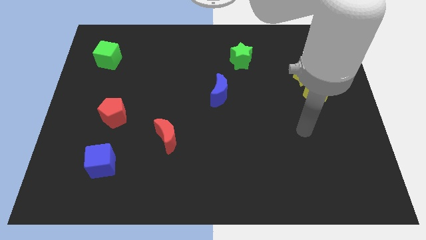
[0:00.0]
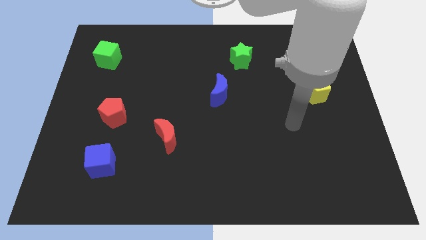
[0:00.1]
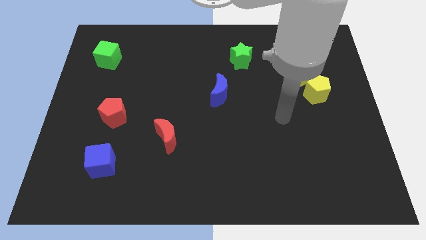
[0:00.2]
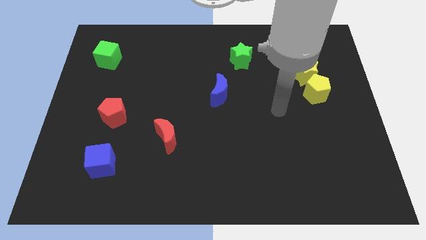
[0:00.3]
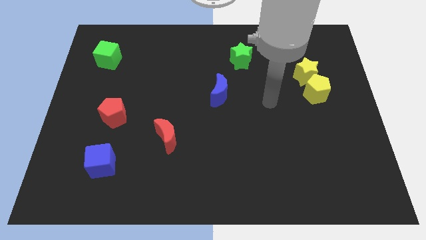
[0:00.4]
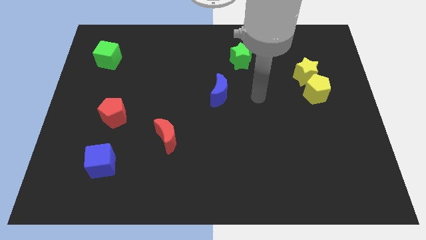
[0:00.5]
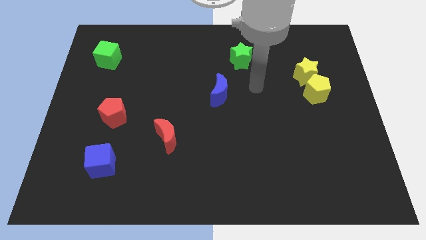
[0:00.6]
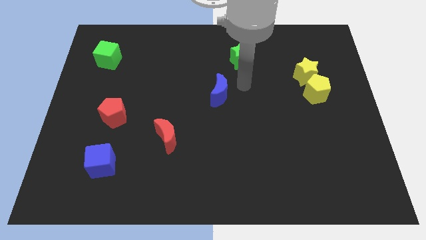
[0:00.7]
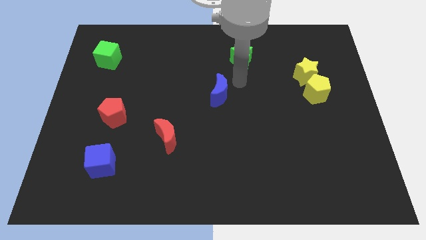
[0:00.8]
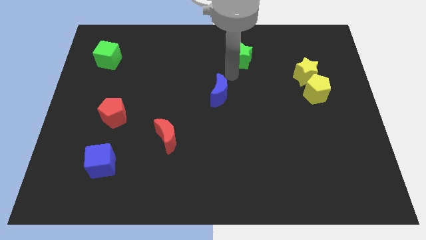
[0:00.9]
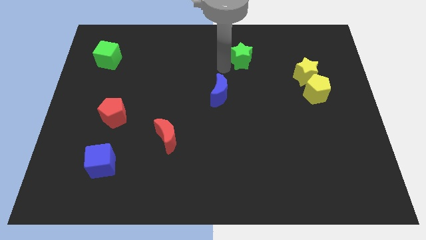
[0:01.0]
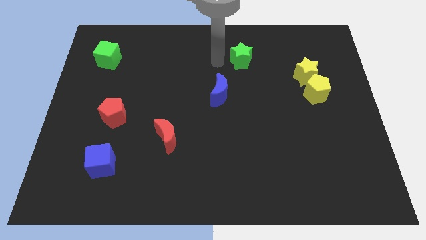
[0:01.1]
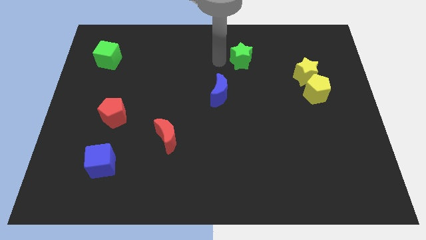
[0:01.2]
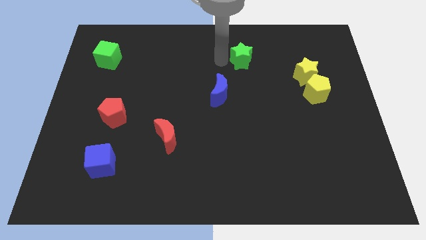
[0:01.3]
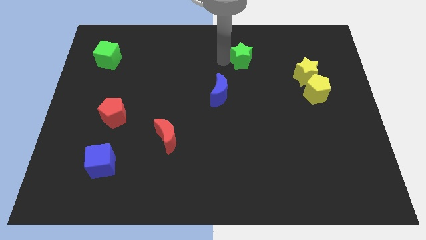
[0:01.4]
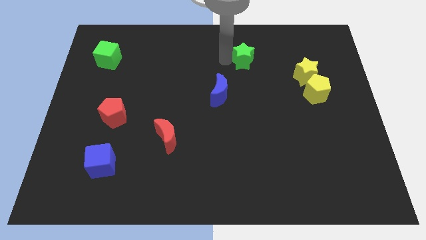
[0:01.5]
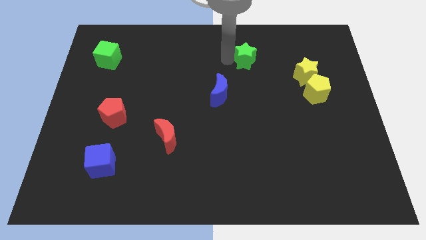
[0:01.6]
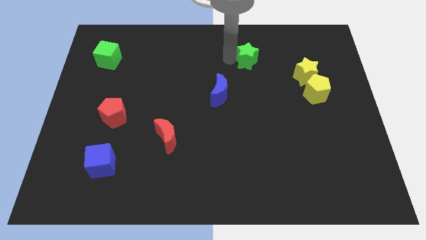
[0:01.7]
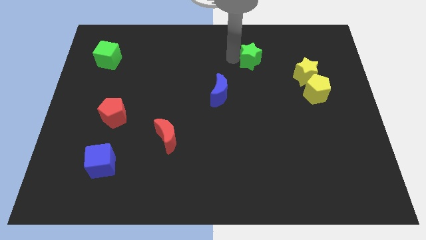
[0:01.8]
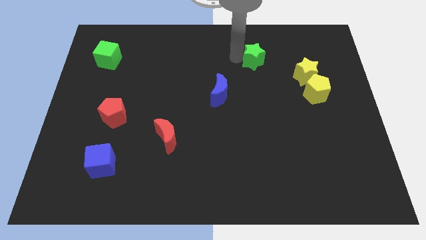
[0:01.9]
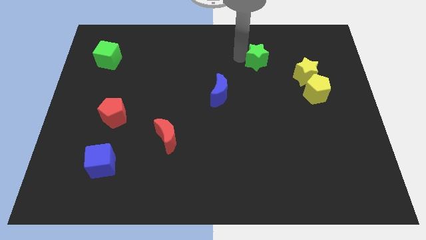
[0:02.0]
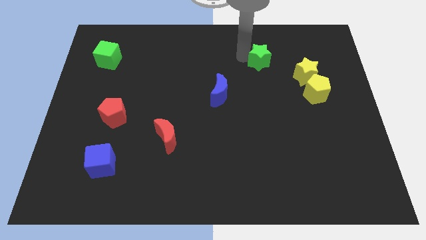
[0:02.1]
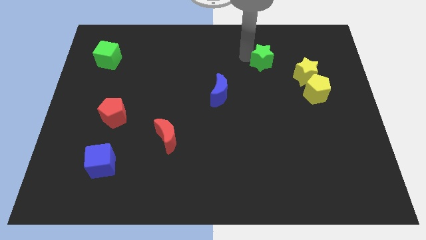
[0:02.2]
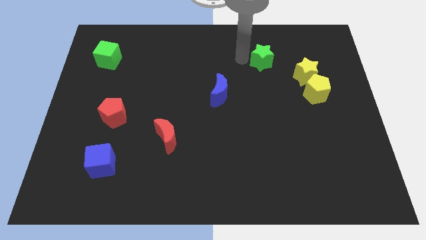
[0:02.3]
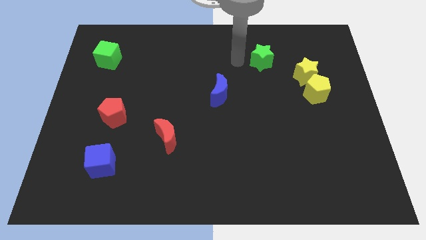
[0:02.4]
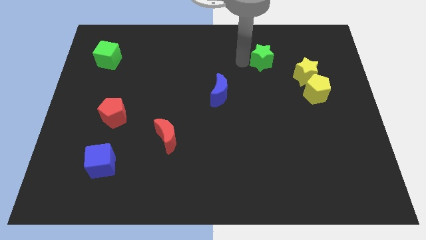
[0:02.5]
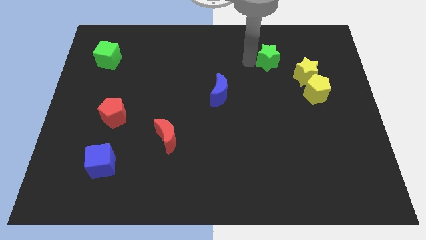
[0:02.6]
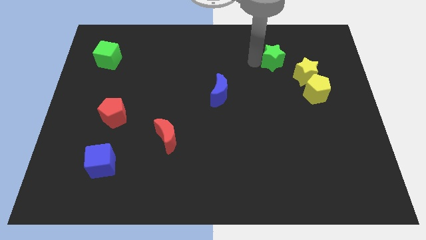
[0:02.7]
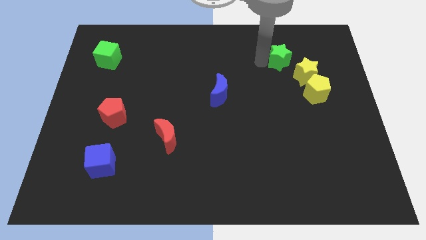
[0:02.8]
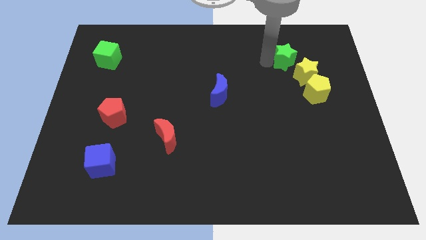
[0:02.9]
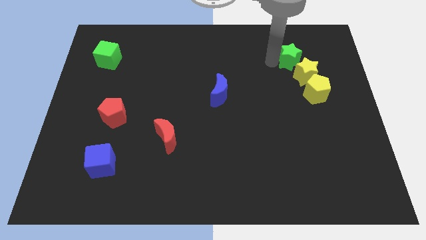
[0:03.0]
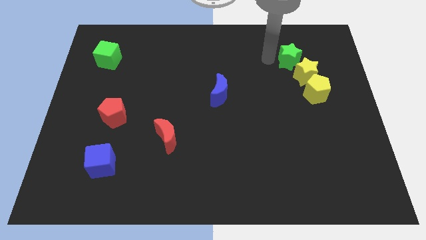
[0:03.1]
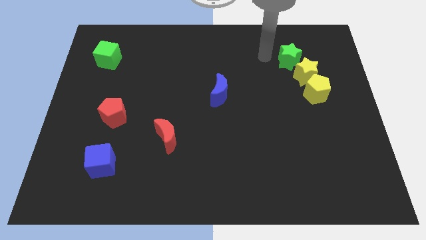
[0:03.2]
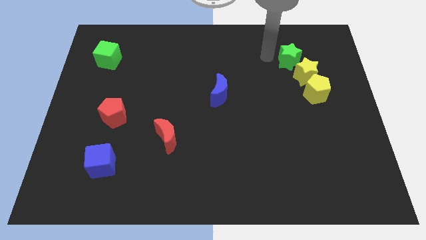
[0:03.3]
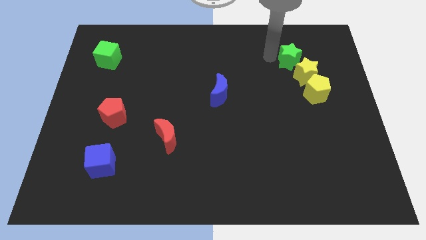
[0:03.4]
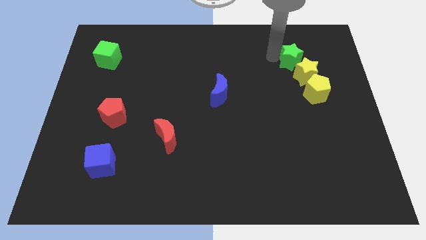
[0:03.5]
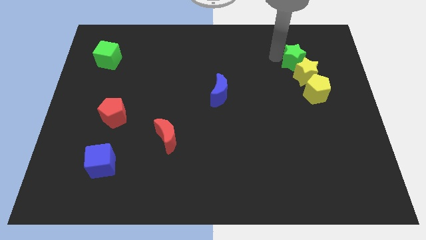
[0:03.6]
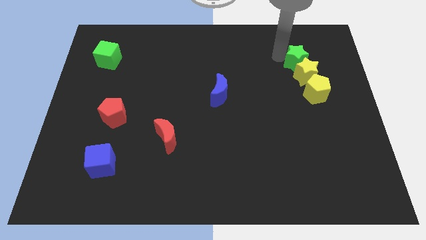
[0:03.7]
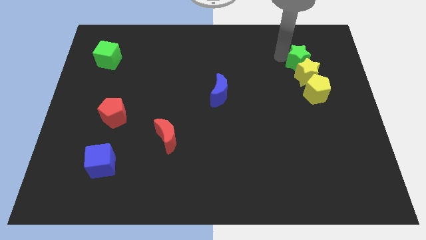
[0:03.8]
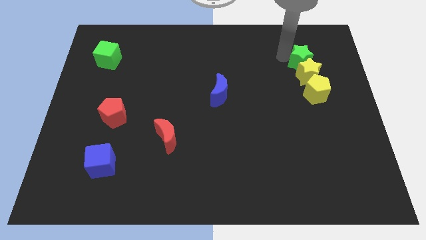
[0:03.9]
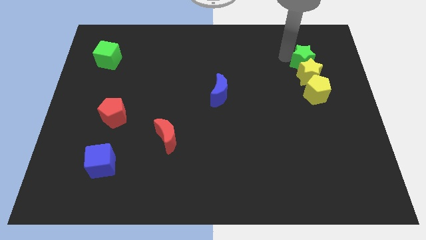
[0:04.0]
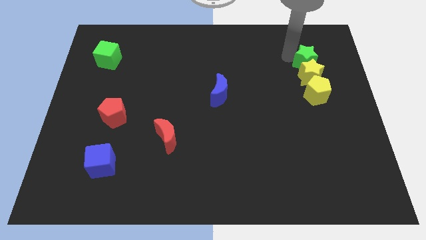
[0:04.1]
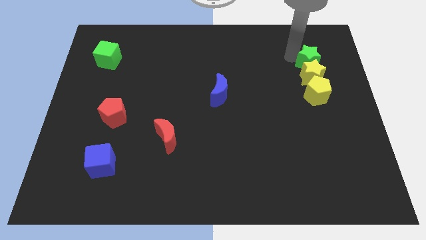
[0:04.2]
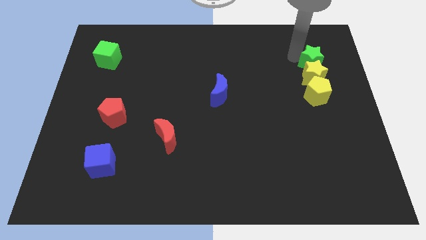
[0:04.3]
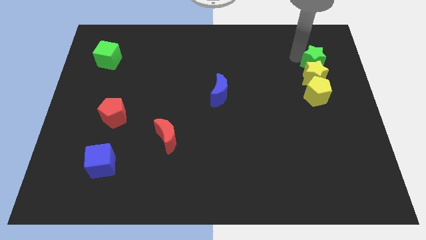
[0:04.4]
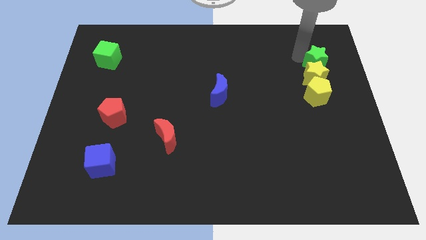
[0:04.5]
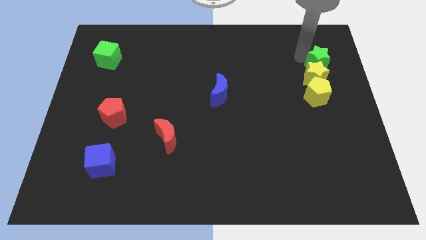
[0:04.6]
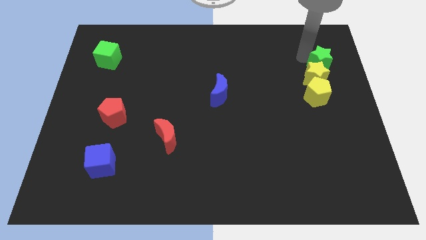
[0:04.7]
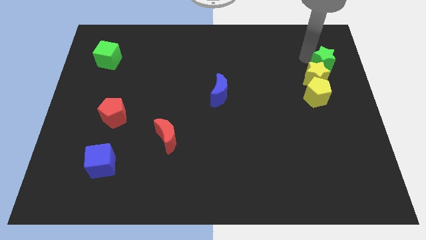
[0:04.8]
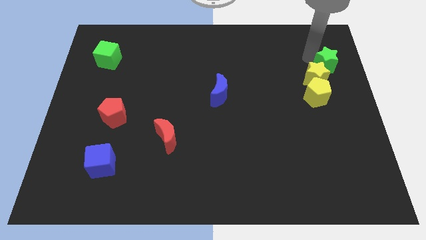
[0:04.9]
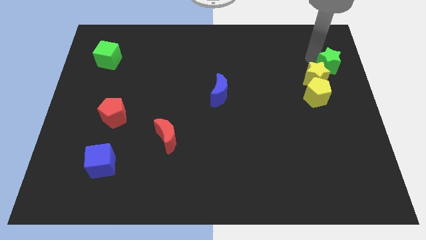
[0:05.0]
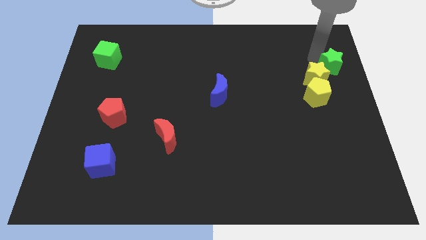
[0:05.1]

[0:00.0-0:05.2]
put the green star to the right side of the board

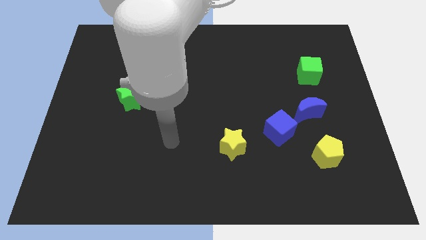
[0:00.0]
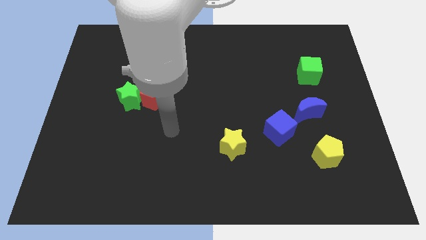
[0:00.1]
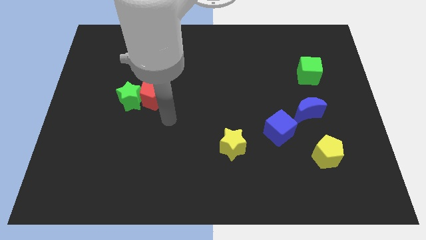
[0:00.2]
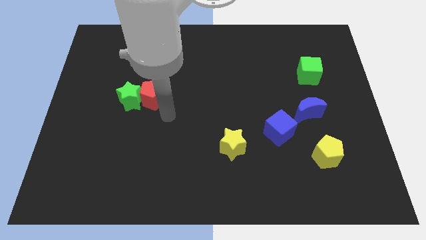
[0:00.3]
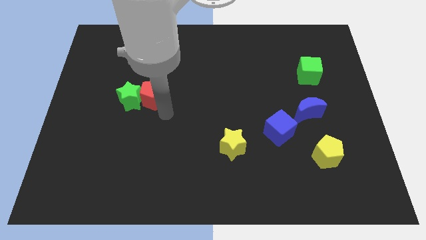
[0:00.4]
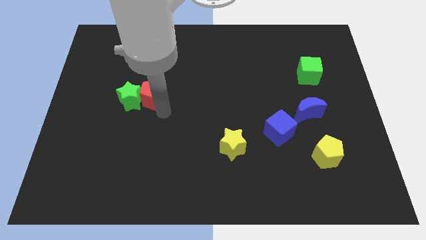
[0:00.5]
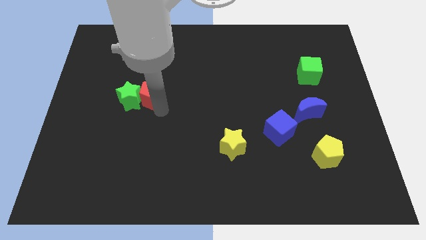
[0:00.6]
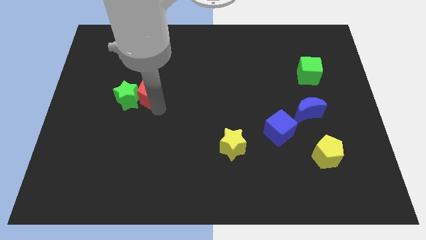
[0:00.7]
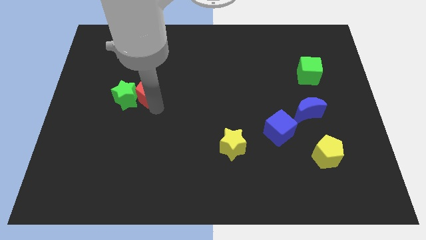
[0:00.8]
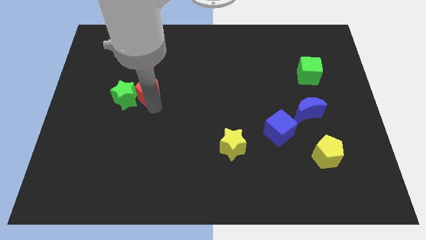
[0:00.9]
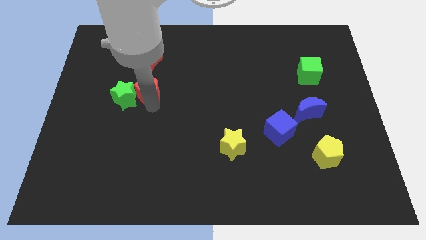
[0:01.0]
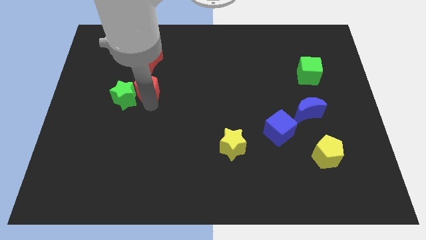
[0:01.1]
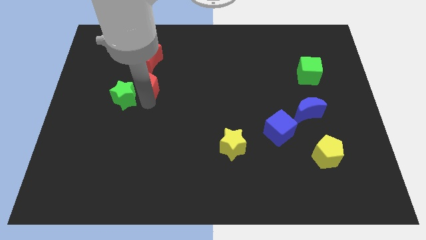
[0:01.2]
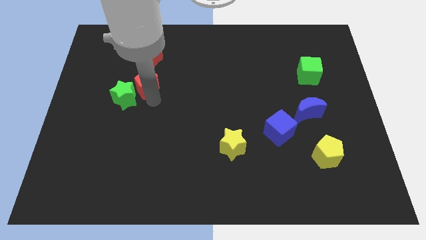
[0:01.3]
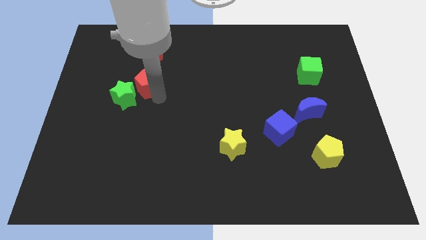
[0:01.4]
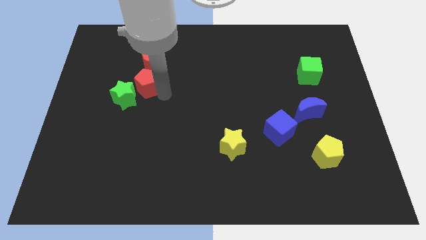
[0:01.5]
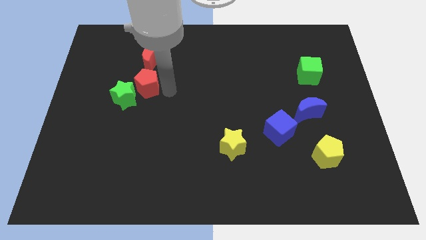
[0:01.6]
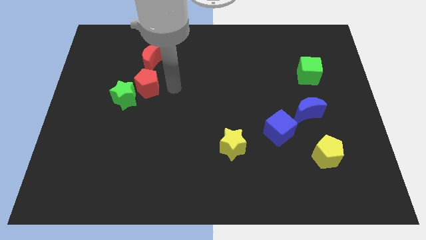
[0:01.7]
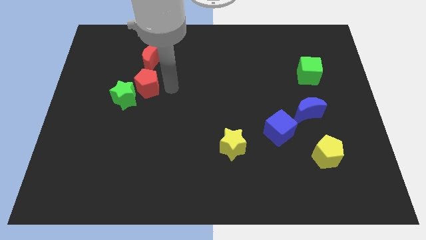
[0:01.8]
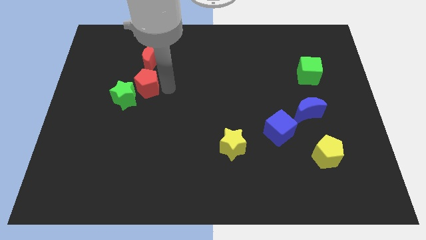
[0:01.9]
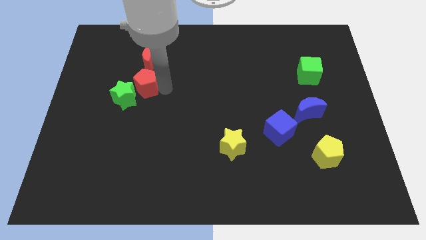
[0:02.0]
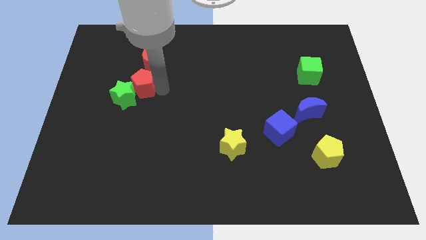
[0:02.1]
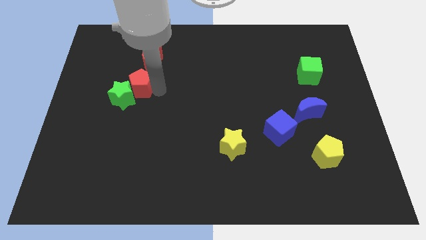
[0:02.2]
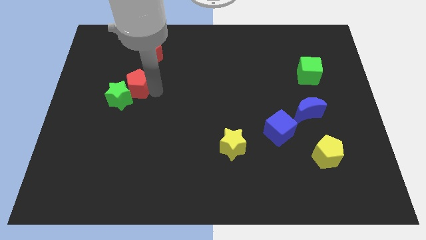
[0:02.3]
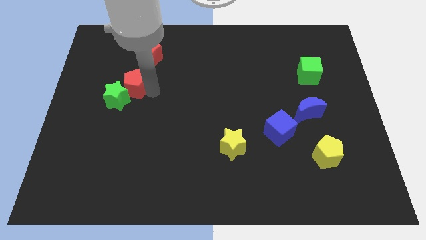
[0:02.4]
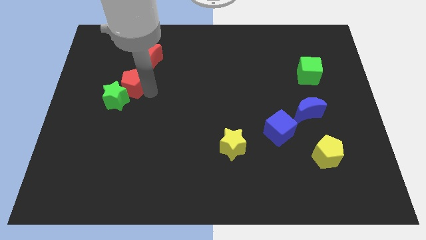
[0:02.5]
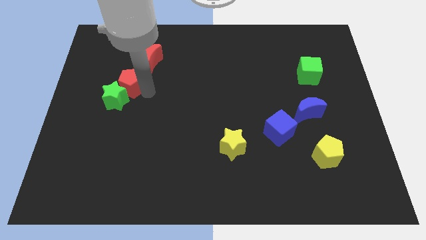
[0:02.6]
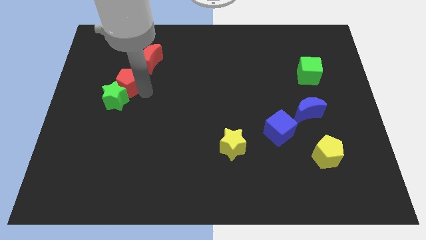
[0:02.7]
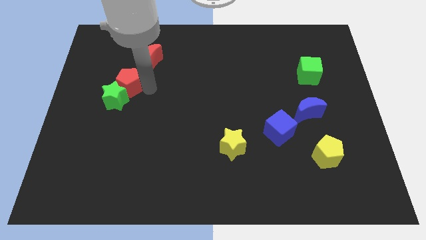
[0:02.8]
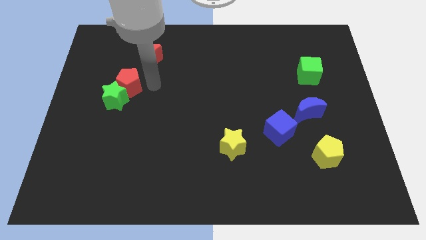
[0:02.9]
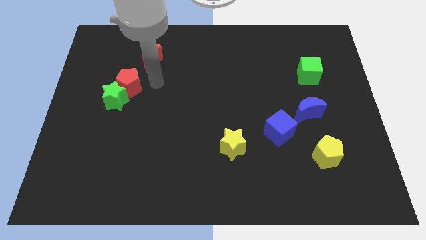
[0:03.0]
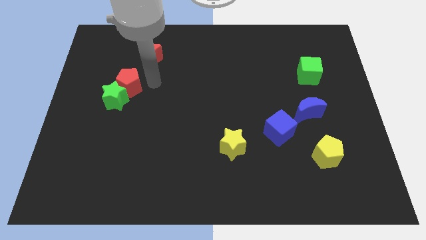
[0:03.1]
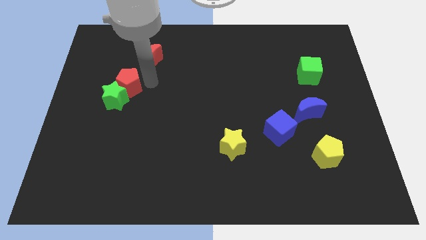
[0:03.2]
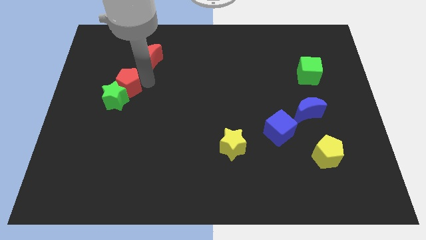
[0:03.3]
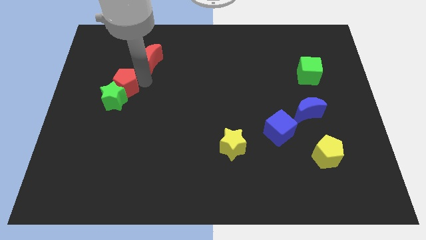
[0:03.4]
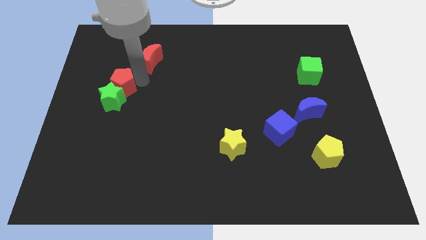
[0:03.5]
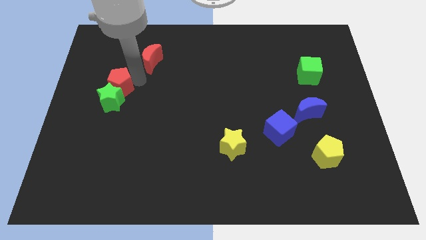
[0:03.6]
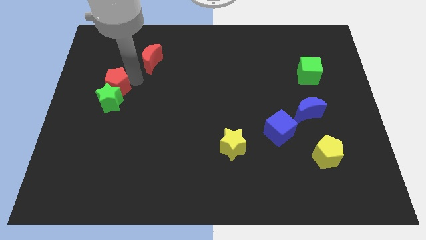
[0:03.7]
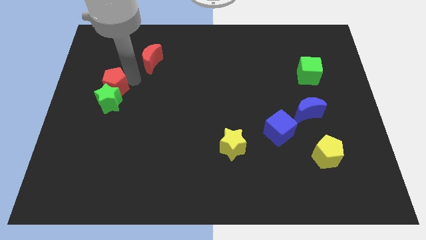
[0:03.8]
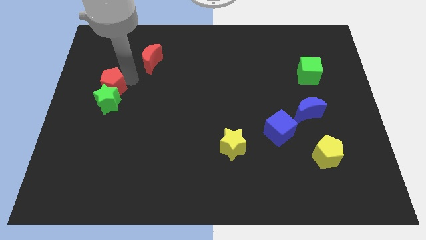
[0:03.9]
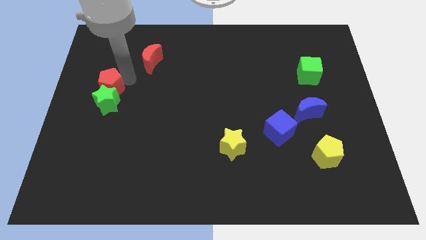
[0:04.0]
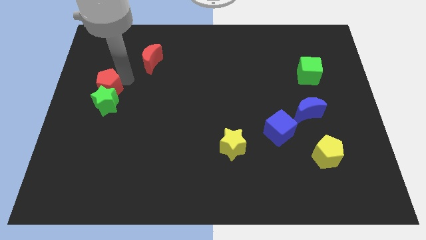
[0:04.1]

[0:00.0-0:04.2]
slide the red pentagon to the left side
